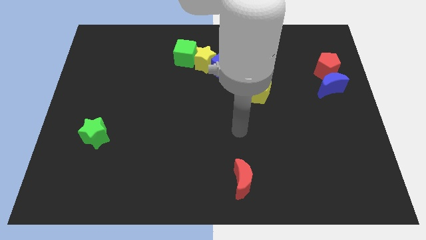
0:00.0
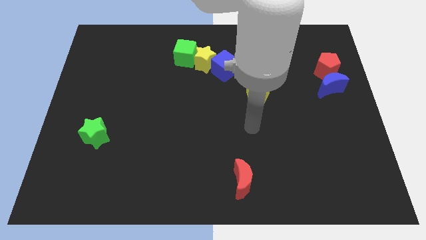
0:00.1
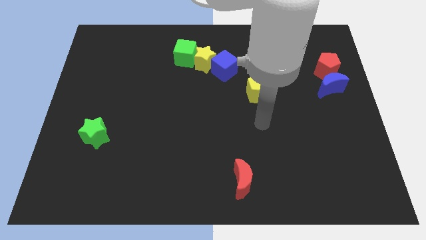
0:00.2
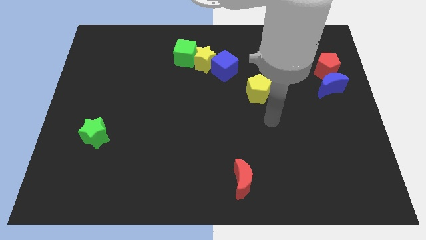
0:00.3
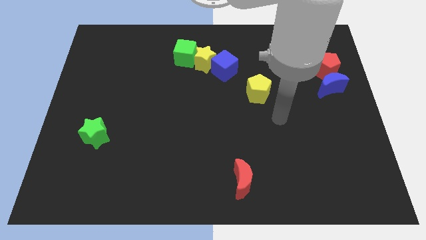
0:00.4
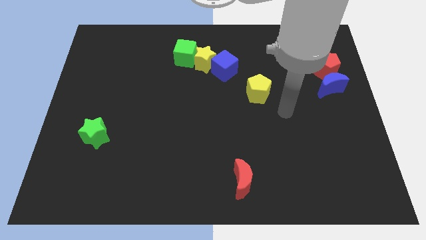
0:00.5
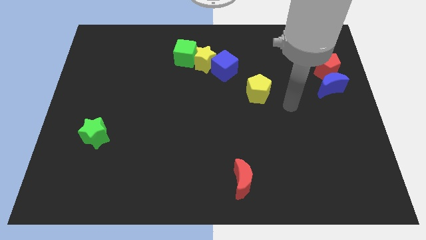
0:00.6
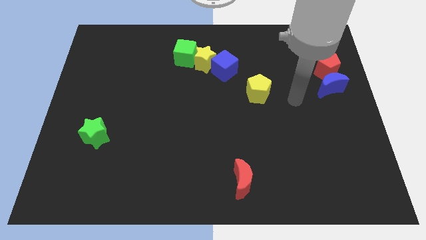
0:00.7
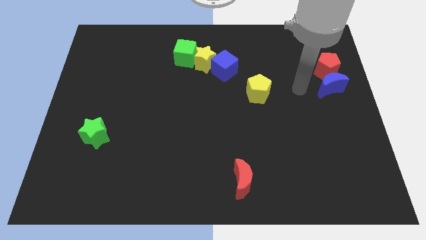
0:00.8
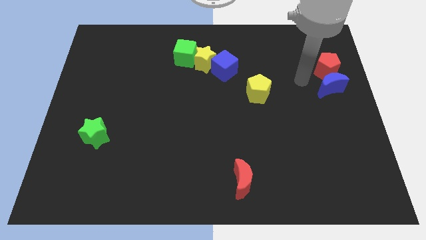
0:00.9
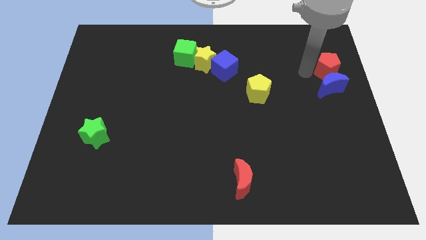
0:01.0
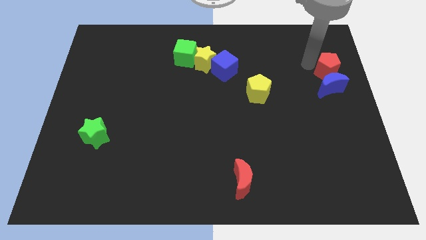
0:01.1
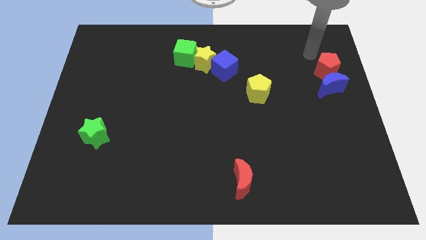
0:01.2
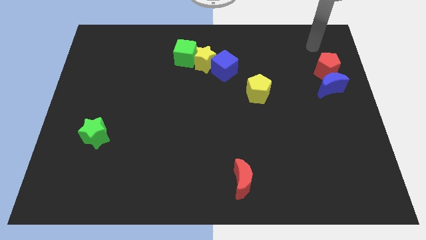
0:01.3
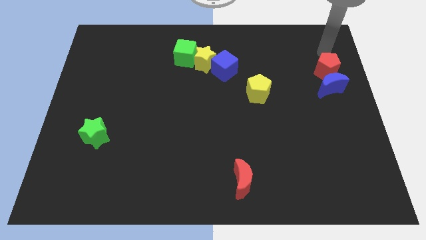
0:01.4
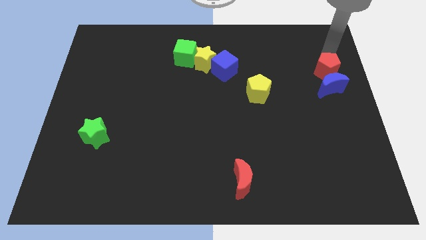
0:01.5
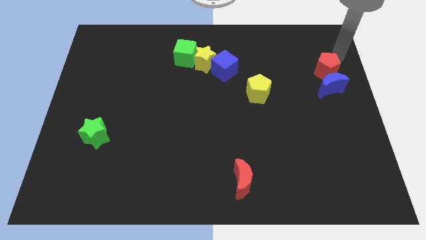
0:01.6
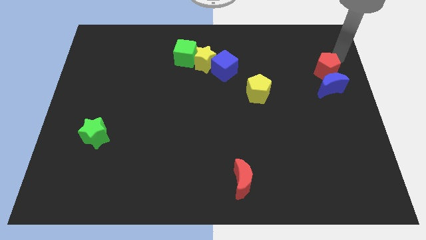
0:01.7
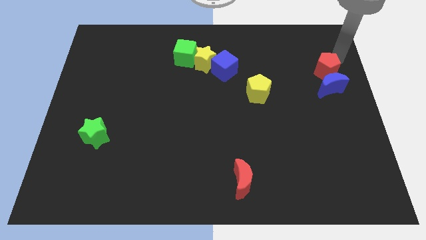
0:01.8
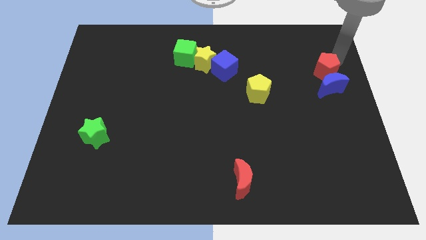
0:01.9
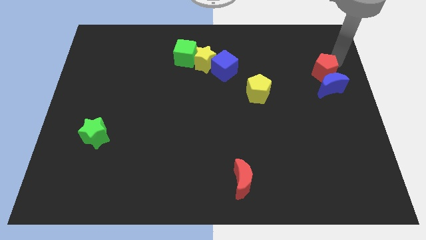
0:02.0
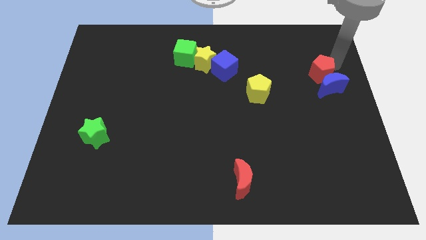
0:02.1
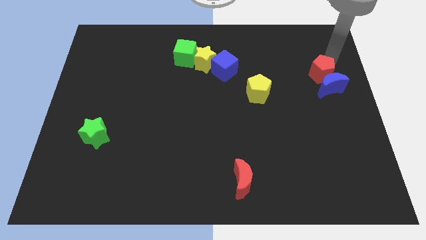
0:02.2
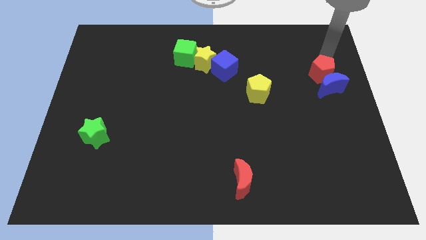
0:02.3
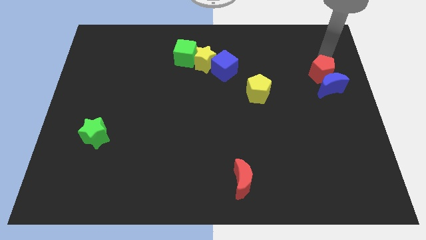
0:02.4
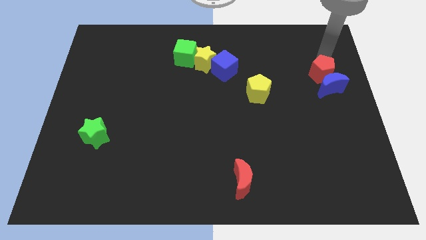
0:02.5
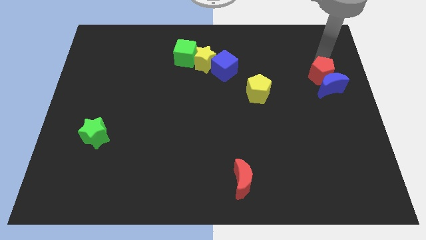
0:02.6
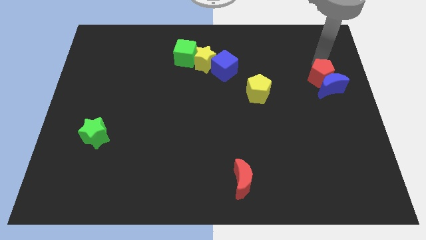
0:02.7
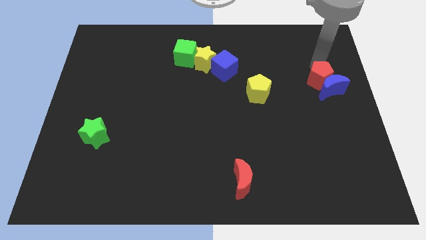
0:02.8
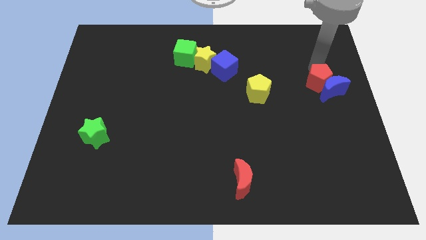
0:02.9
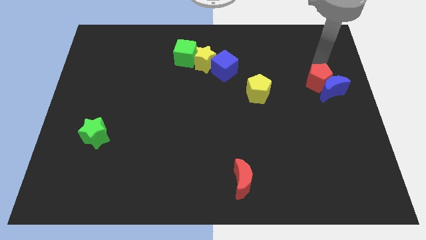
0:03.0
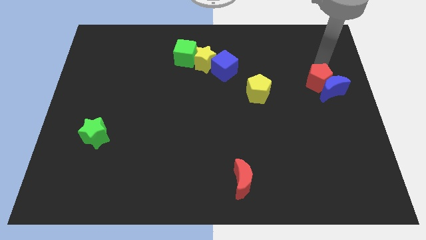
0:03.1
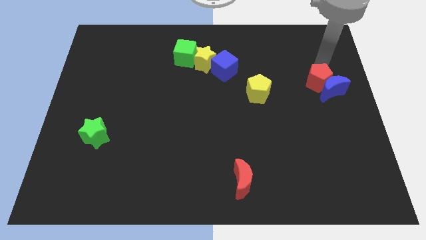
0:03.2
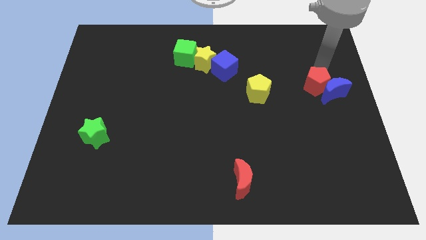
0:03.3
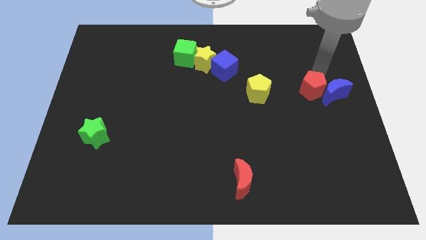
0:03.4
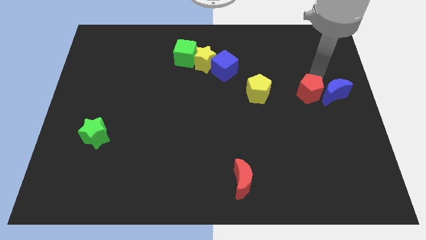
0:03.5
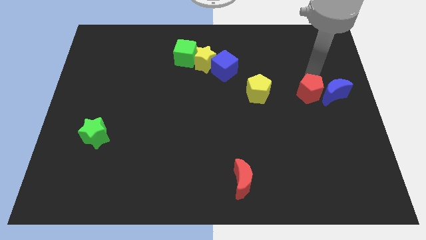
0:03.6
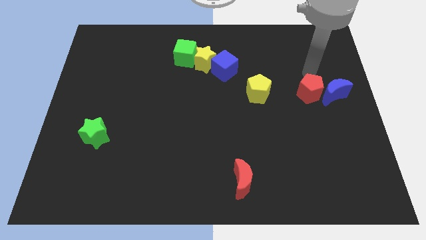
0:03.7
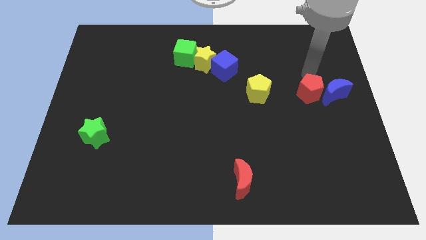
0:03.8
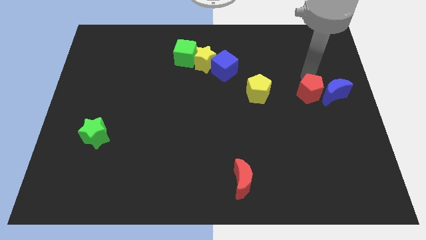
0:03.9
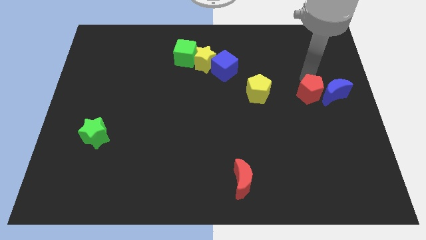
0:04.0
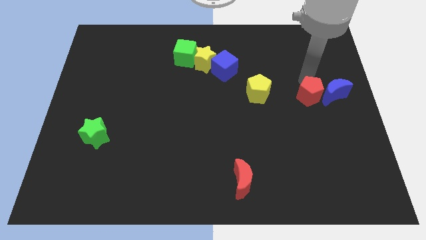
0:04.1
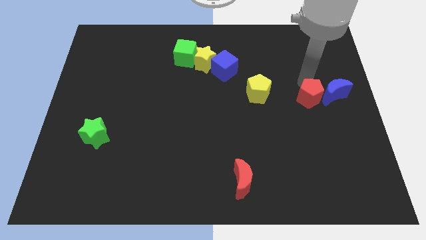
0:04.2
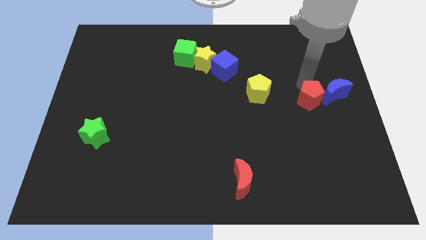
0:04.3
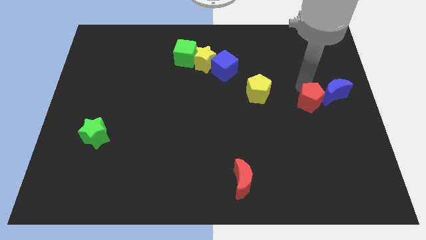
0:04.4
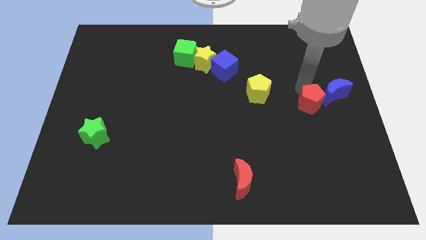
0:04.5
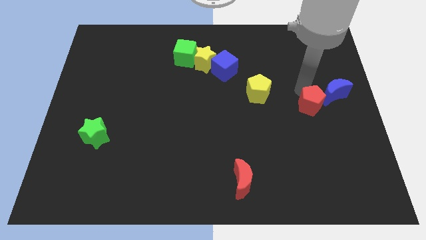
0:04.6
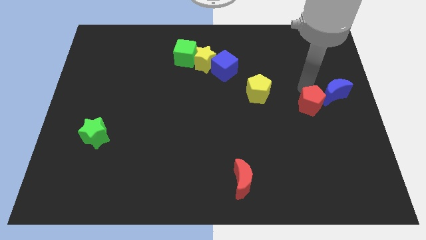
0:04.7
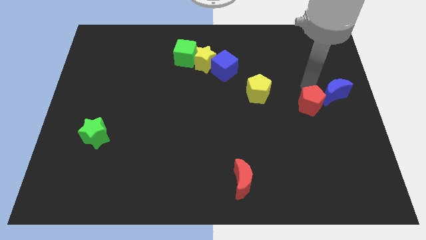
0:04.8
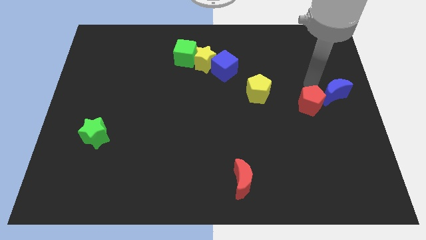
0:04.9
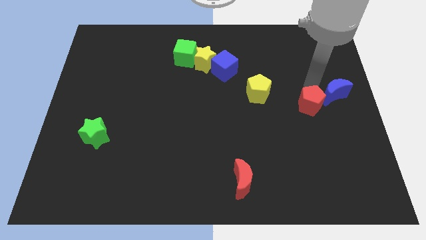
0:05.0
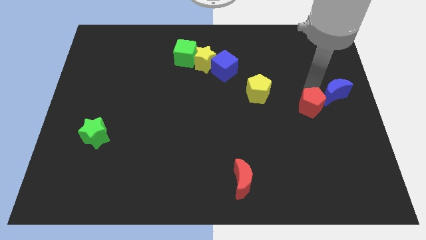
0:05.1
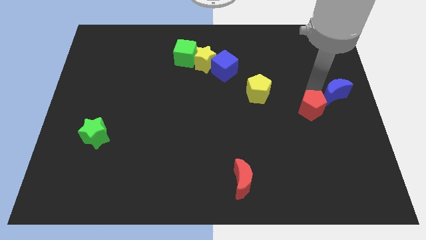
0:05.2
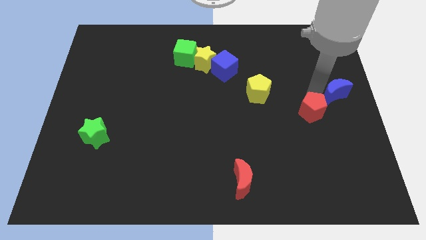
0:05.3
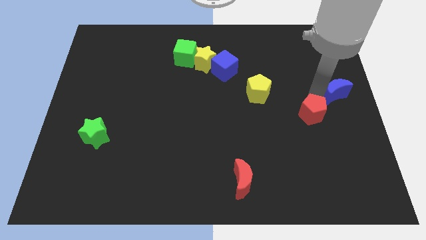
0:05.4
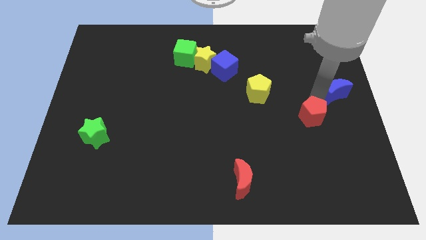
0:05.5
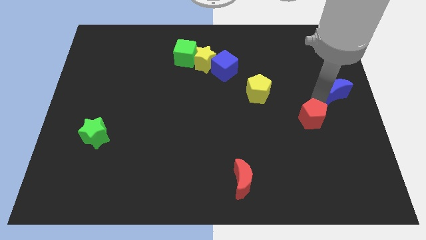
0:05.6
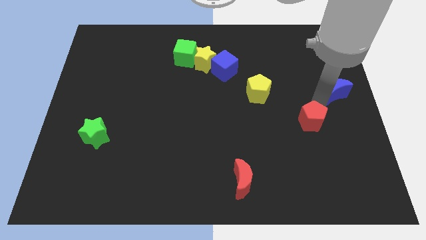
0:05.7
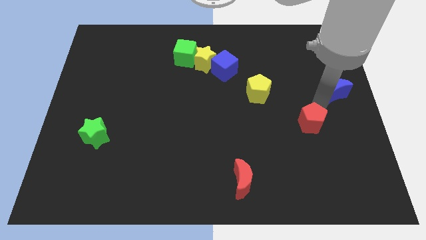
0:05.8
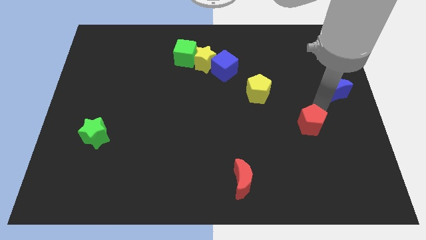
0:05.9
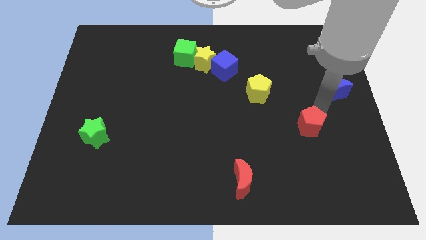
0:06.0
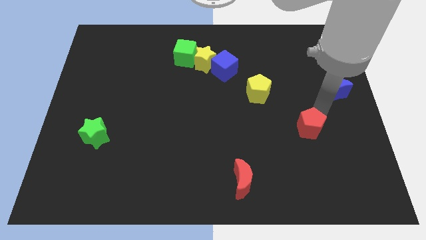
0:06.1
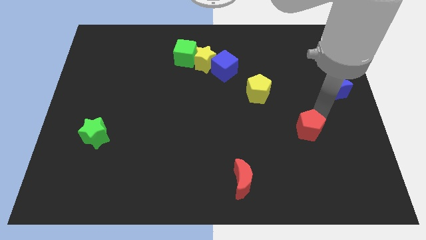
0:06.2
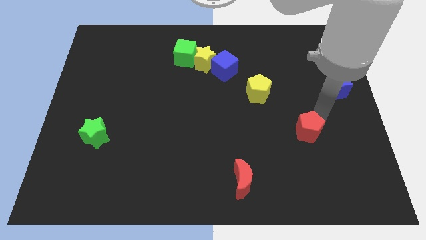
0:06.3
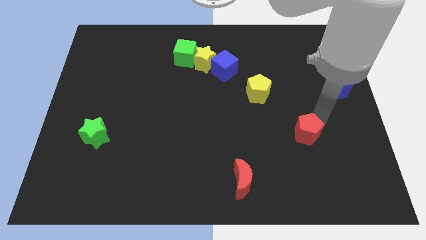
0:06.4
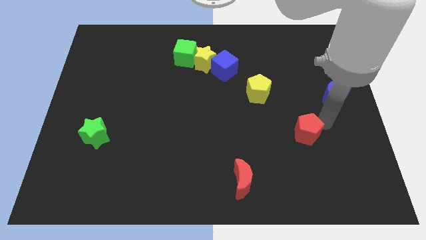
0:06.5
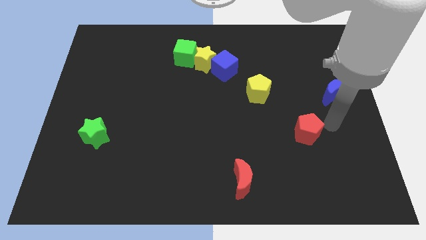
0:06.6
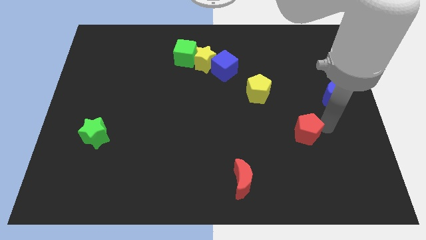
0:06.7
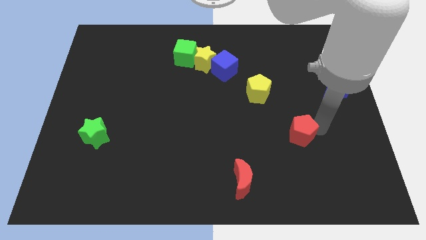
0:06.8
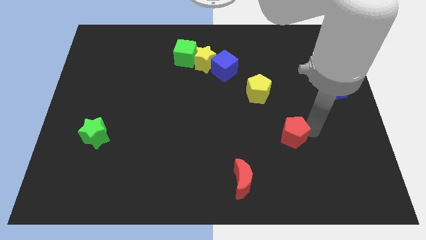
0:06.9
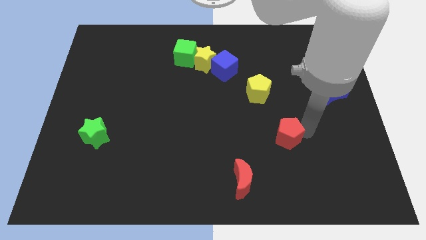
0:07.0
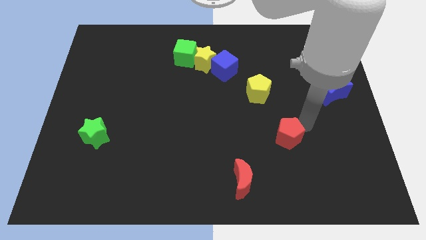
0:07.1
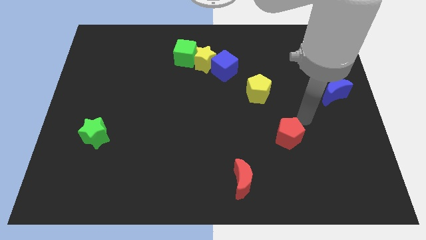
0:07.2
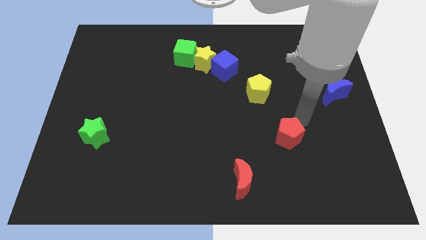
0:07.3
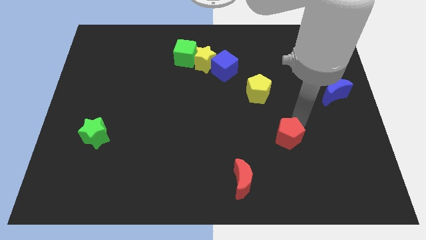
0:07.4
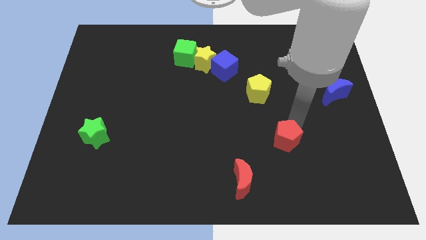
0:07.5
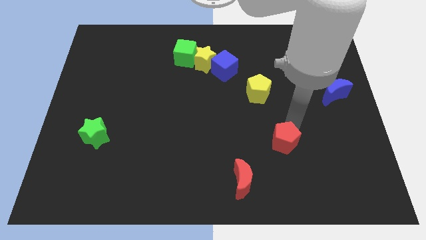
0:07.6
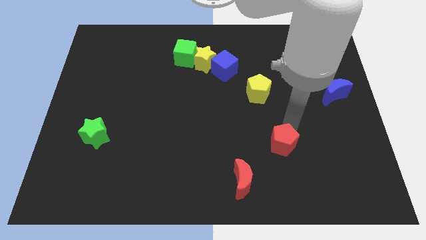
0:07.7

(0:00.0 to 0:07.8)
slide the red pentagon to the top right of the red moon
